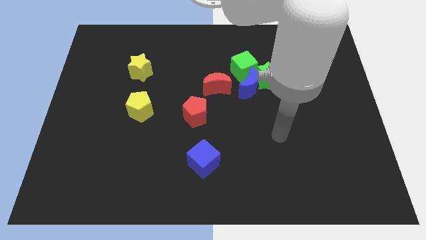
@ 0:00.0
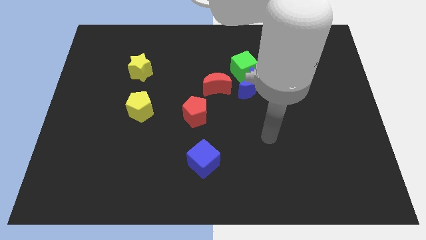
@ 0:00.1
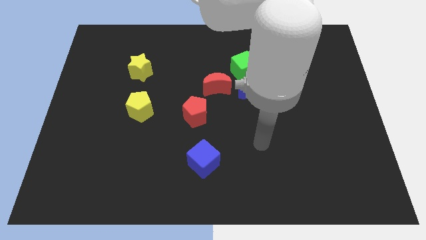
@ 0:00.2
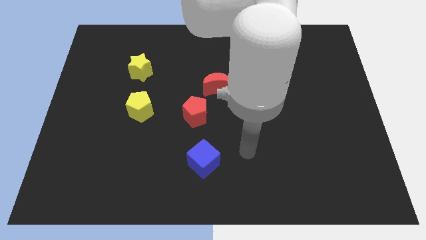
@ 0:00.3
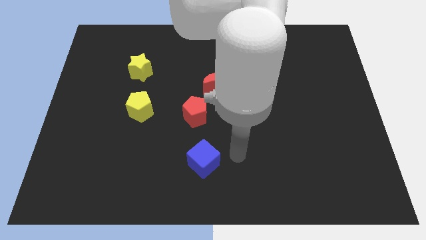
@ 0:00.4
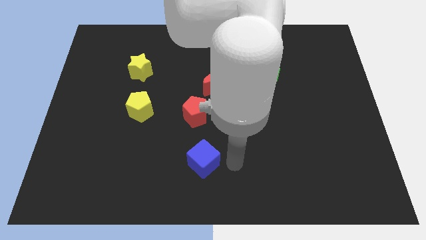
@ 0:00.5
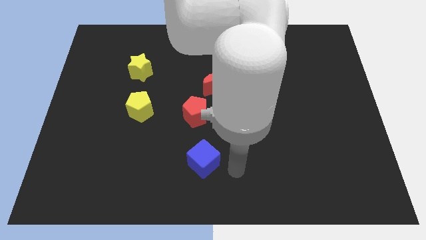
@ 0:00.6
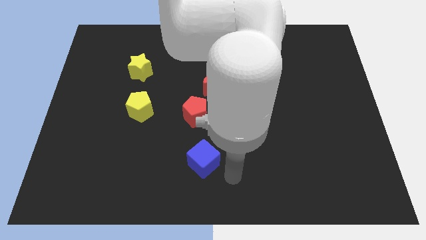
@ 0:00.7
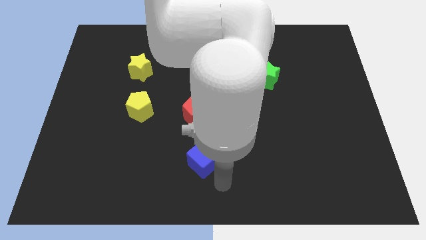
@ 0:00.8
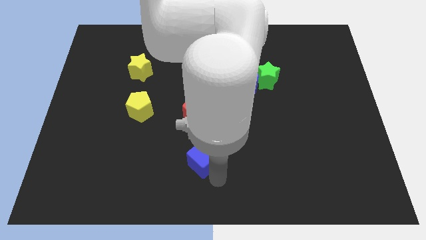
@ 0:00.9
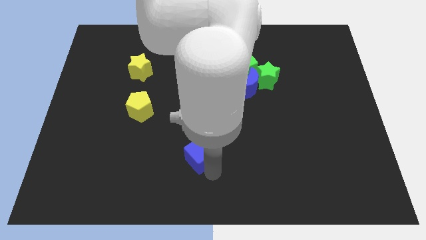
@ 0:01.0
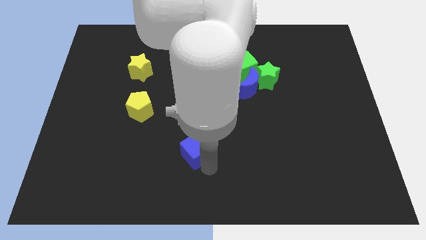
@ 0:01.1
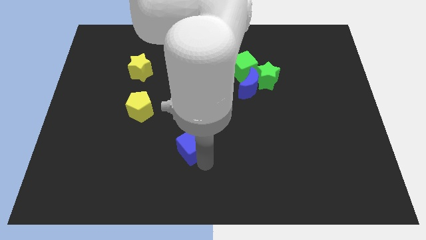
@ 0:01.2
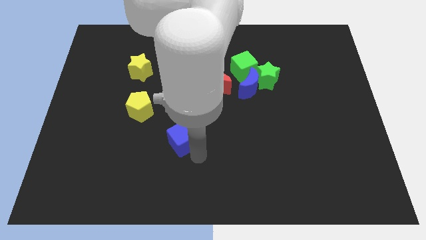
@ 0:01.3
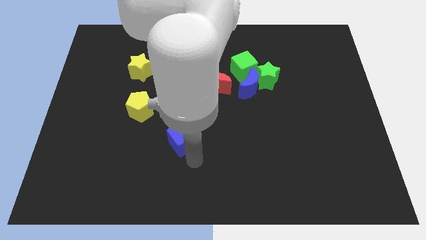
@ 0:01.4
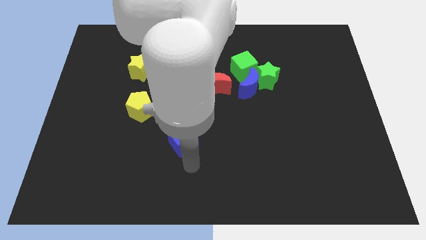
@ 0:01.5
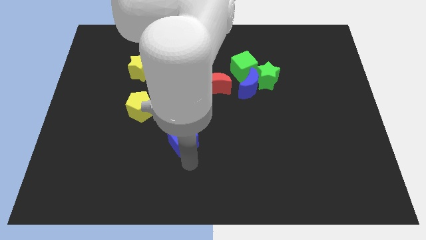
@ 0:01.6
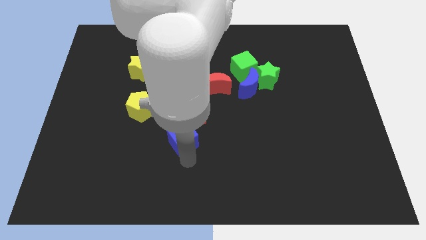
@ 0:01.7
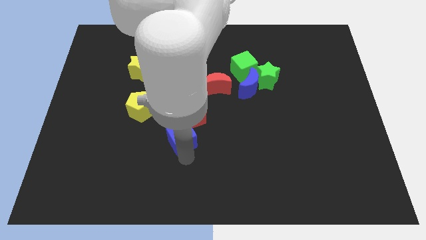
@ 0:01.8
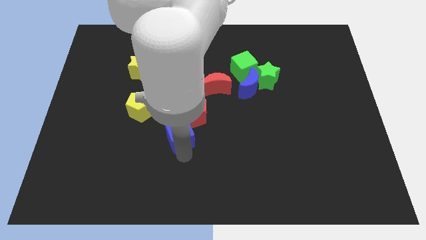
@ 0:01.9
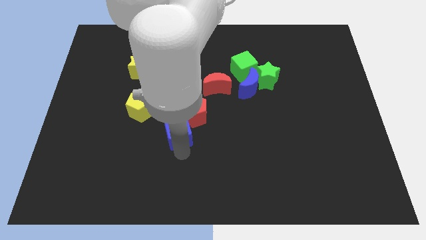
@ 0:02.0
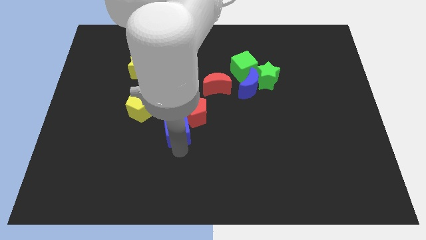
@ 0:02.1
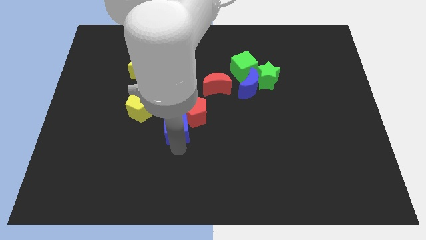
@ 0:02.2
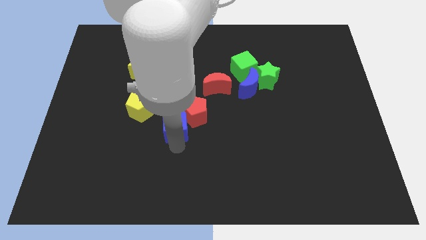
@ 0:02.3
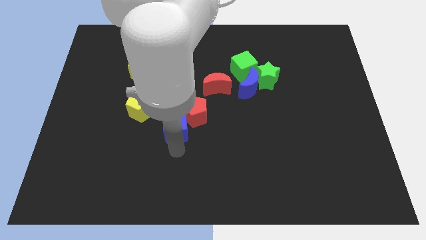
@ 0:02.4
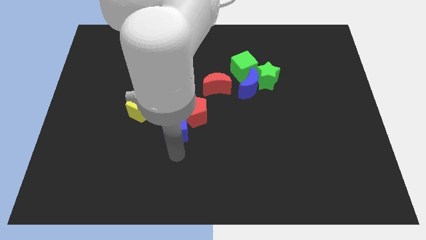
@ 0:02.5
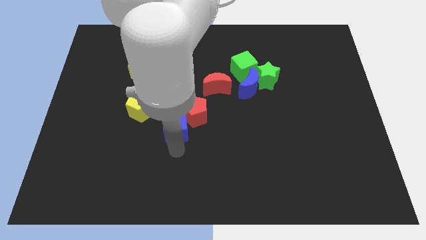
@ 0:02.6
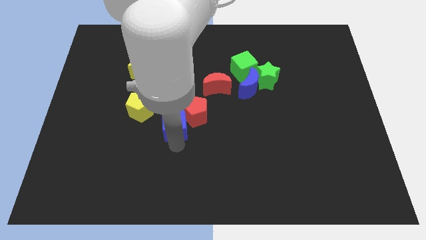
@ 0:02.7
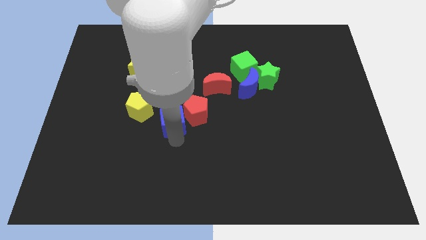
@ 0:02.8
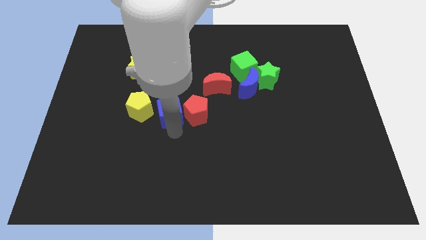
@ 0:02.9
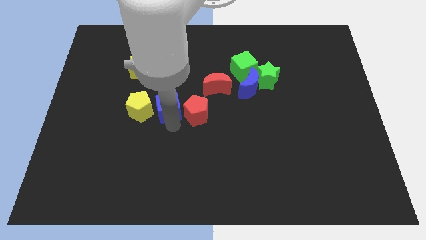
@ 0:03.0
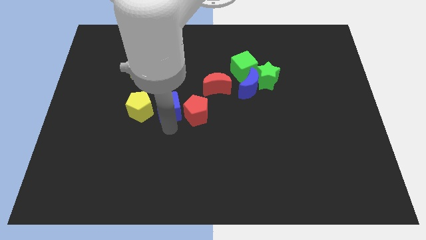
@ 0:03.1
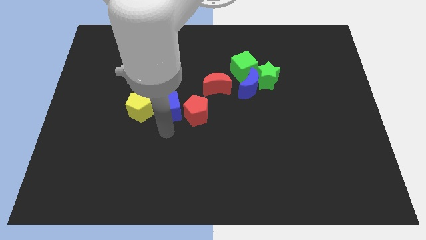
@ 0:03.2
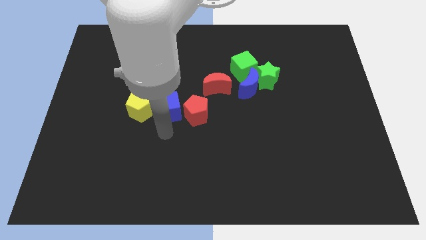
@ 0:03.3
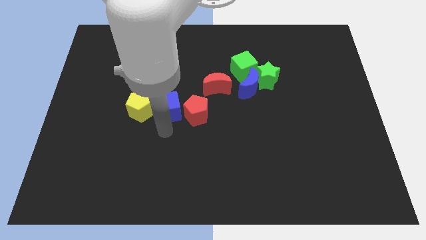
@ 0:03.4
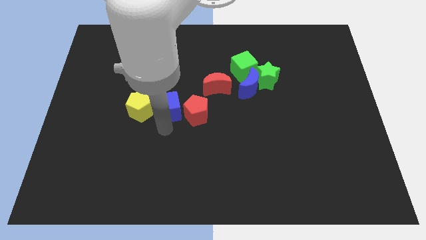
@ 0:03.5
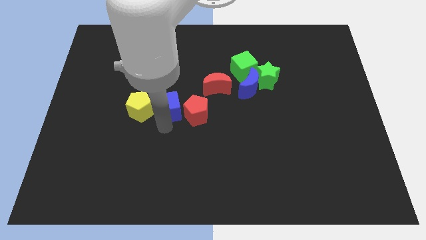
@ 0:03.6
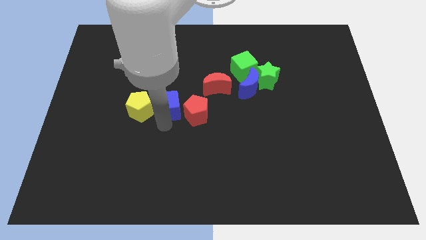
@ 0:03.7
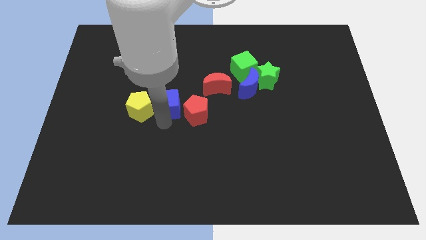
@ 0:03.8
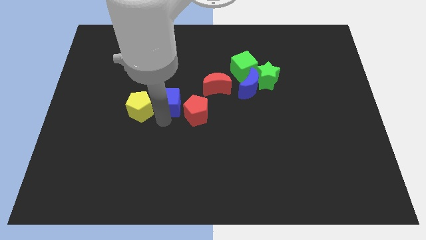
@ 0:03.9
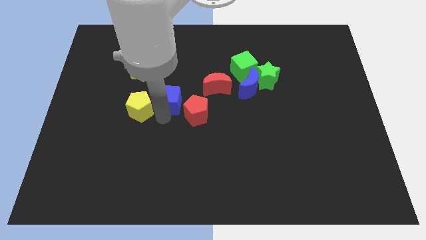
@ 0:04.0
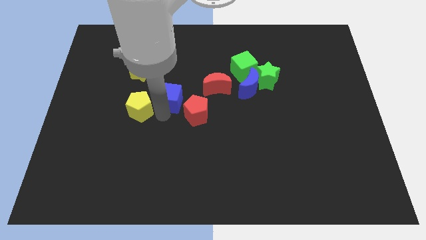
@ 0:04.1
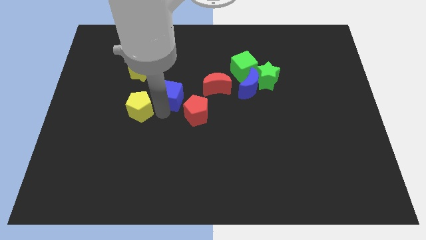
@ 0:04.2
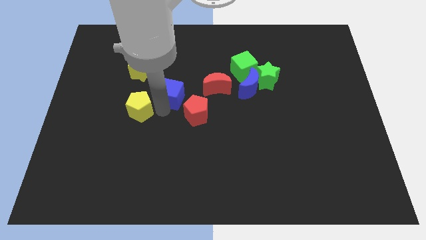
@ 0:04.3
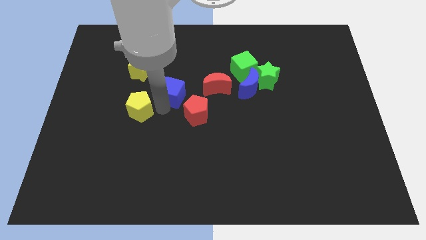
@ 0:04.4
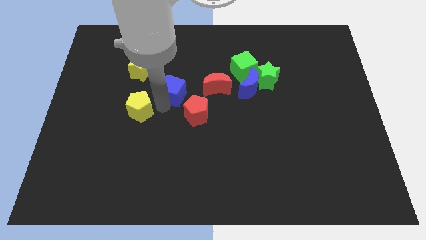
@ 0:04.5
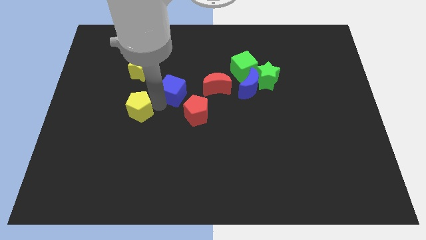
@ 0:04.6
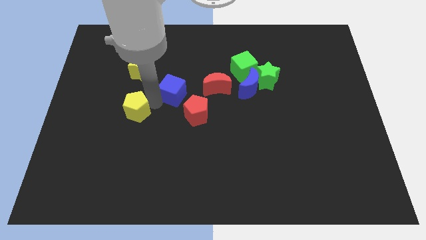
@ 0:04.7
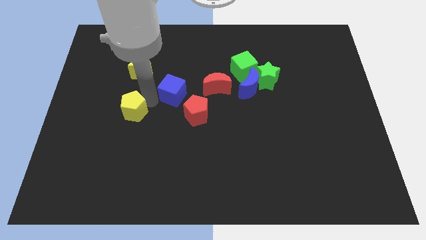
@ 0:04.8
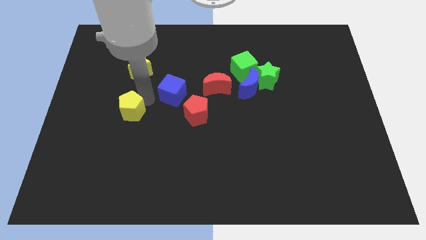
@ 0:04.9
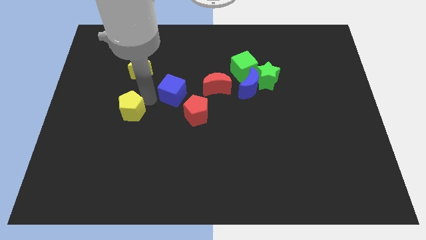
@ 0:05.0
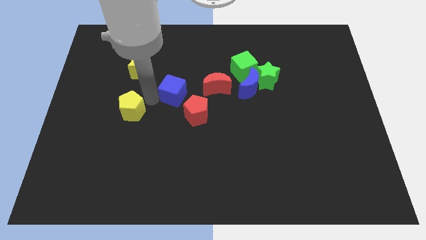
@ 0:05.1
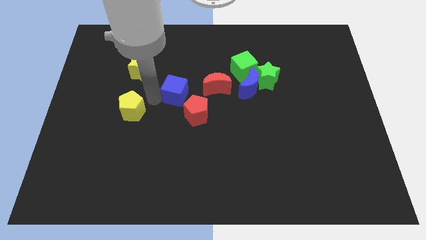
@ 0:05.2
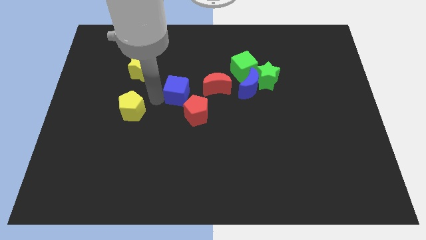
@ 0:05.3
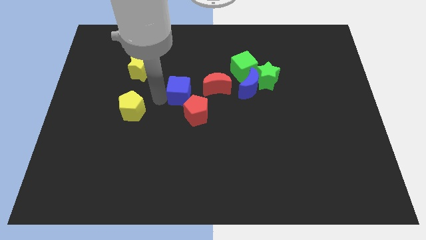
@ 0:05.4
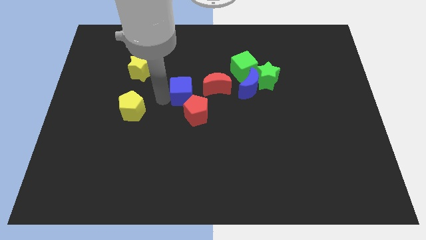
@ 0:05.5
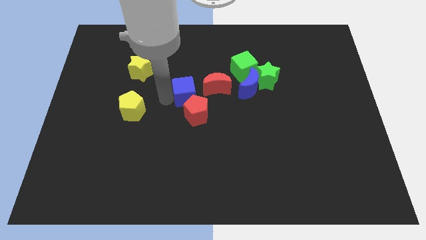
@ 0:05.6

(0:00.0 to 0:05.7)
slide the blue cube to the left of the blue moon
